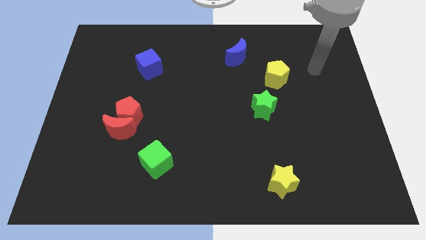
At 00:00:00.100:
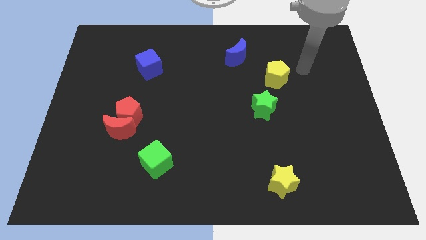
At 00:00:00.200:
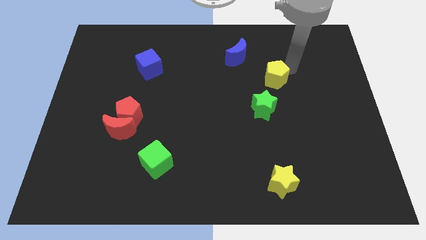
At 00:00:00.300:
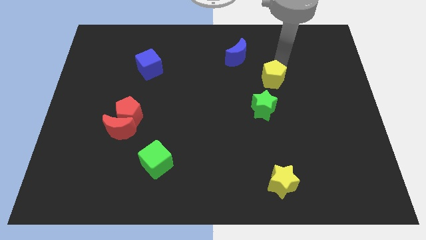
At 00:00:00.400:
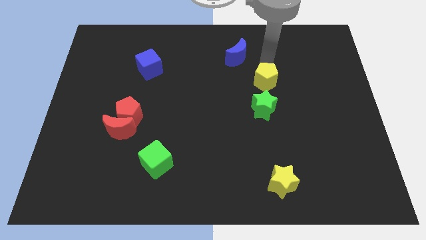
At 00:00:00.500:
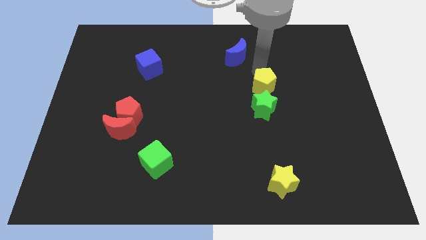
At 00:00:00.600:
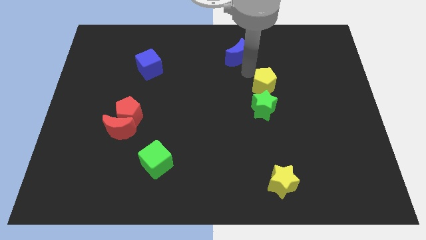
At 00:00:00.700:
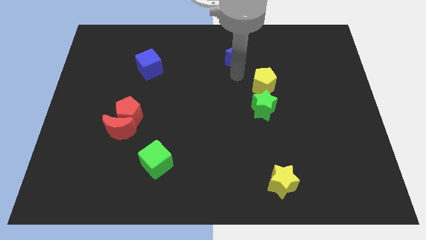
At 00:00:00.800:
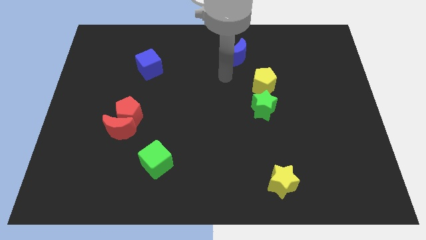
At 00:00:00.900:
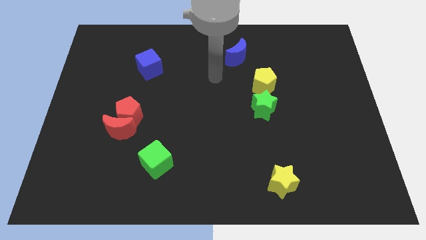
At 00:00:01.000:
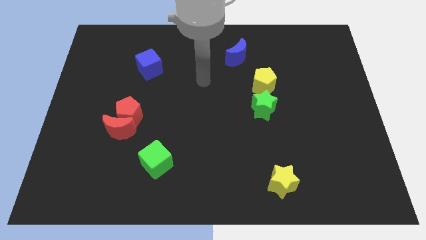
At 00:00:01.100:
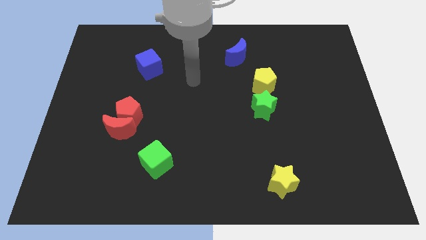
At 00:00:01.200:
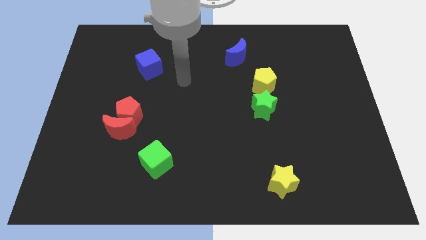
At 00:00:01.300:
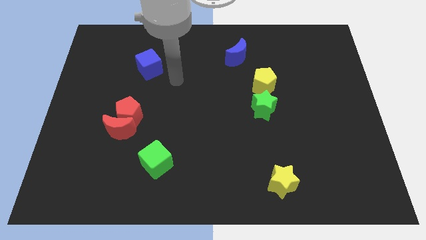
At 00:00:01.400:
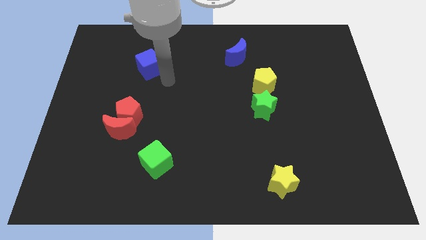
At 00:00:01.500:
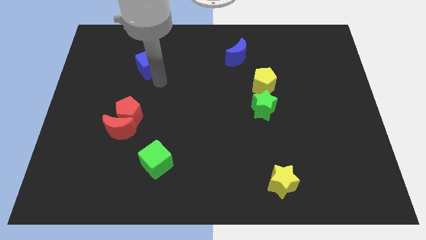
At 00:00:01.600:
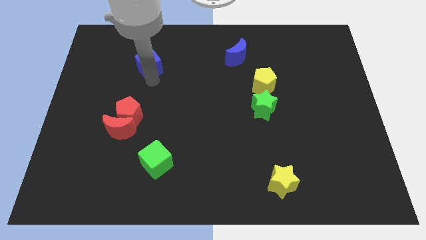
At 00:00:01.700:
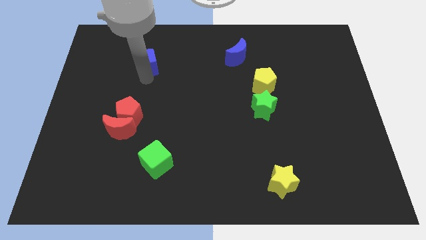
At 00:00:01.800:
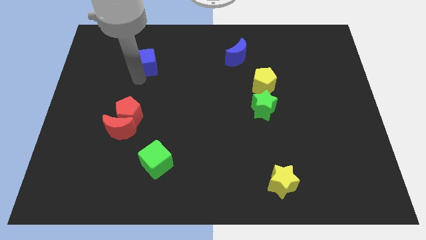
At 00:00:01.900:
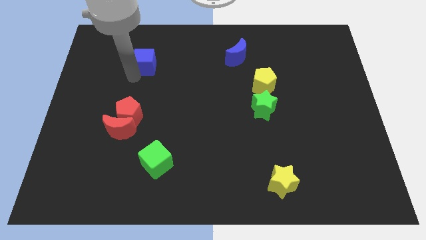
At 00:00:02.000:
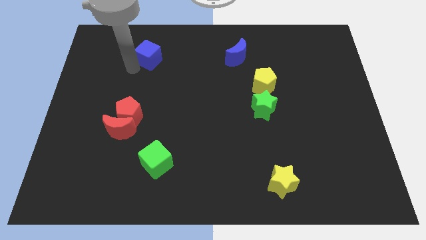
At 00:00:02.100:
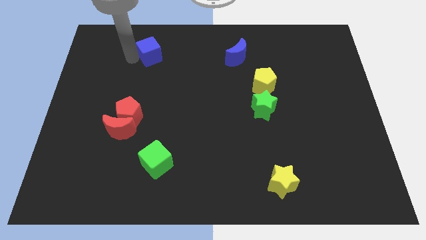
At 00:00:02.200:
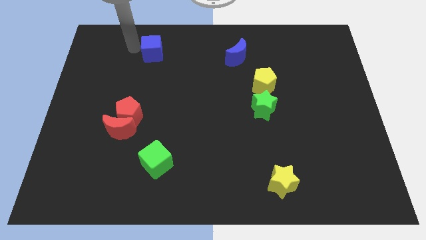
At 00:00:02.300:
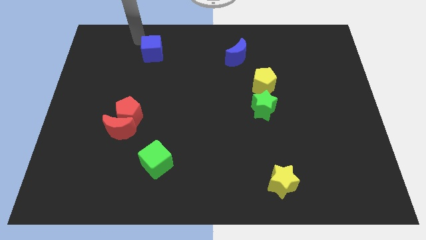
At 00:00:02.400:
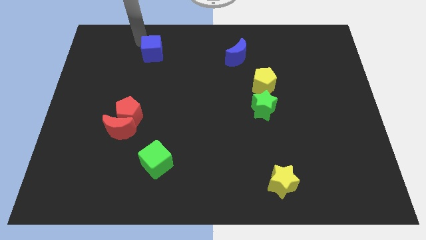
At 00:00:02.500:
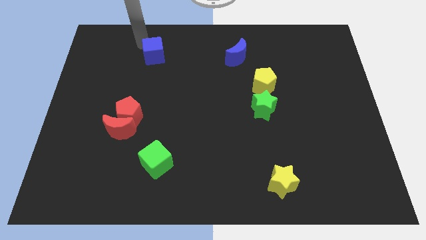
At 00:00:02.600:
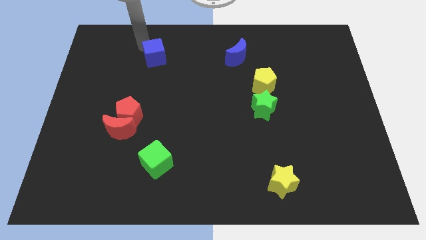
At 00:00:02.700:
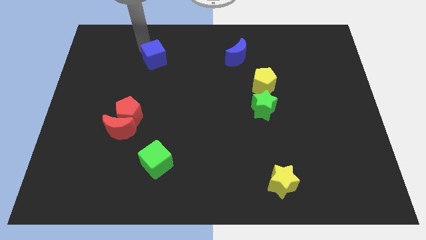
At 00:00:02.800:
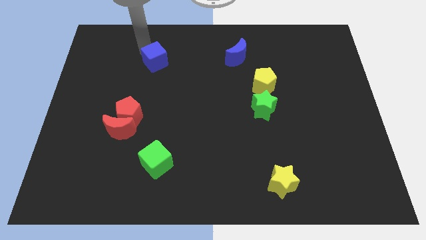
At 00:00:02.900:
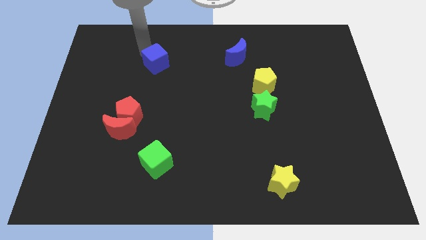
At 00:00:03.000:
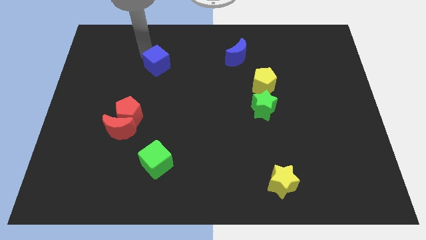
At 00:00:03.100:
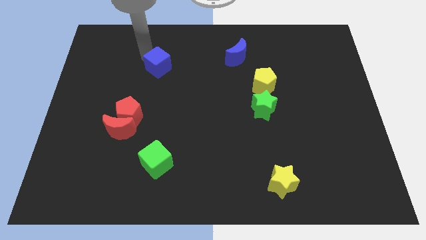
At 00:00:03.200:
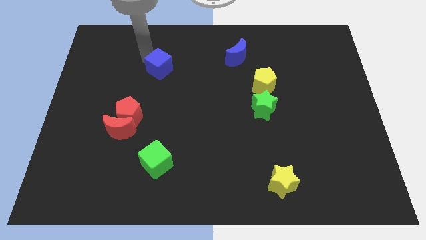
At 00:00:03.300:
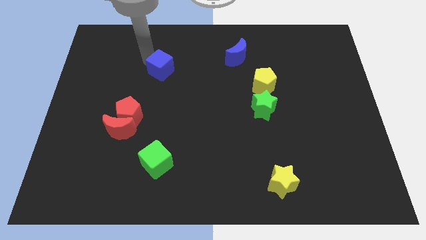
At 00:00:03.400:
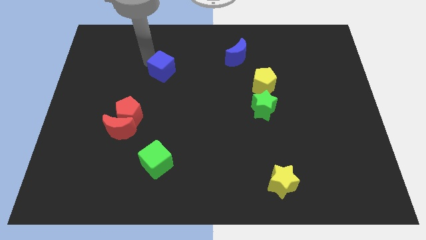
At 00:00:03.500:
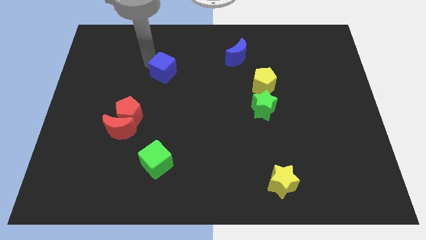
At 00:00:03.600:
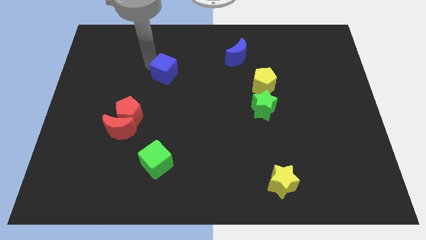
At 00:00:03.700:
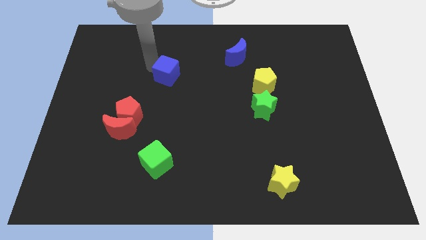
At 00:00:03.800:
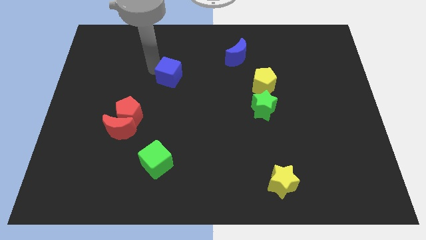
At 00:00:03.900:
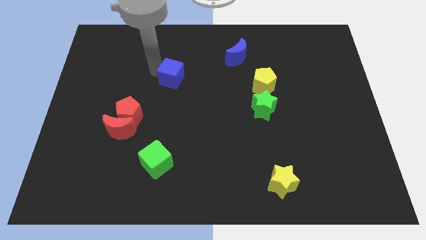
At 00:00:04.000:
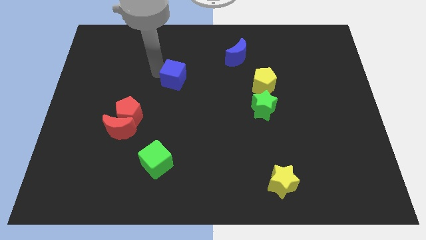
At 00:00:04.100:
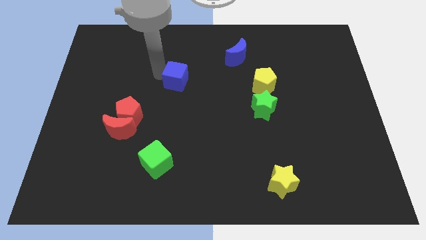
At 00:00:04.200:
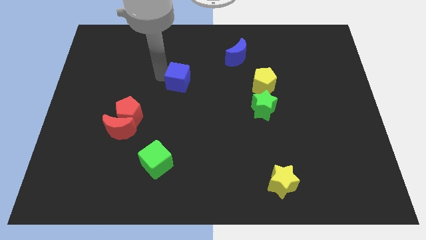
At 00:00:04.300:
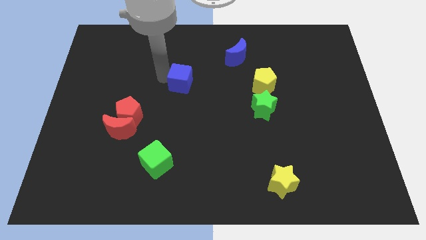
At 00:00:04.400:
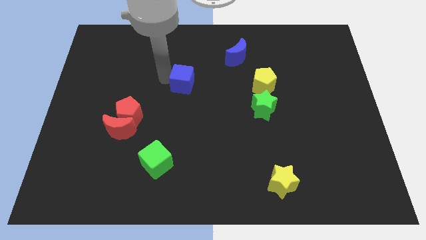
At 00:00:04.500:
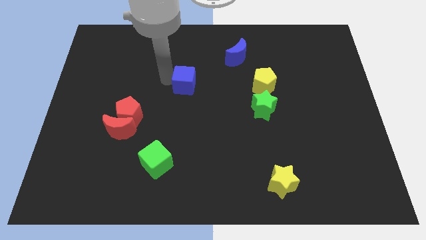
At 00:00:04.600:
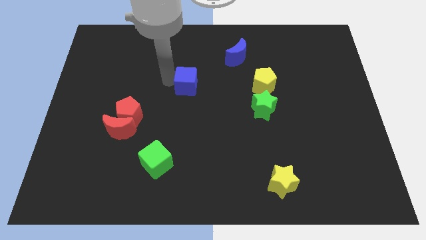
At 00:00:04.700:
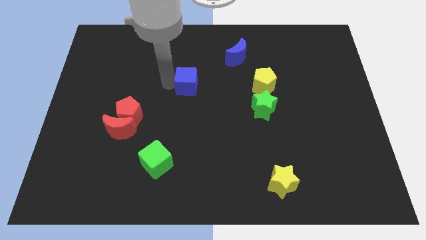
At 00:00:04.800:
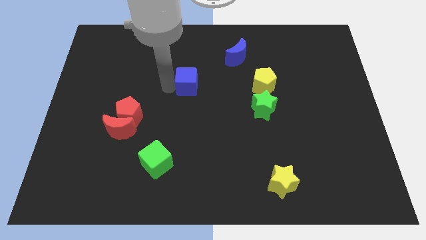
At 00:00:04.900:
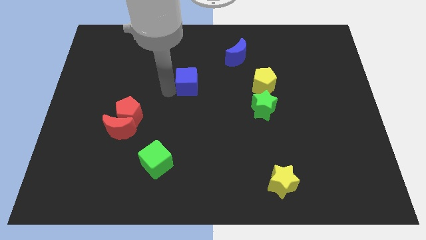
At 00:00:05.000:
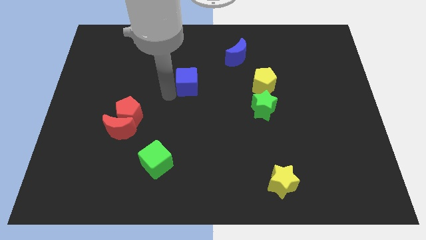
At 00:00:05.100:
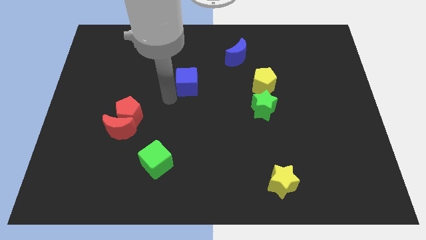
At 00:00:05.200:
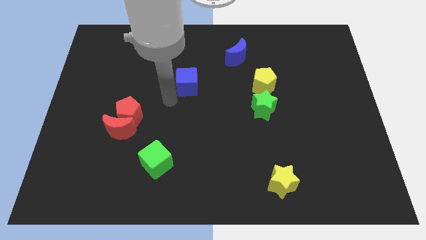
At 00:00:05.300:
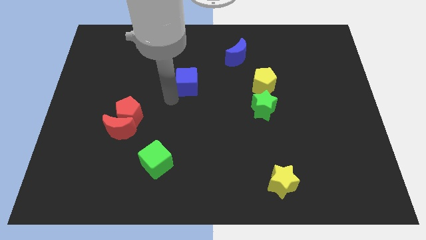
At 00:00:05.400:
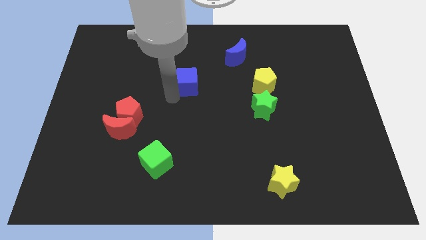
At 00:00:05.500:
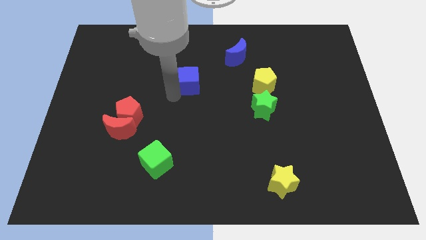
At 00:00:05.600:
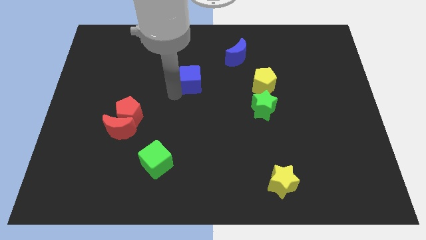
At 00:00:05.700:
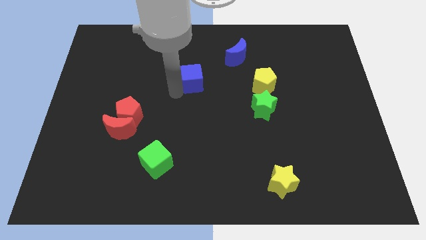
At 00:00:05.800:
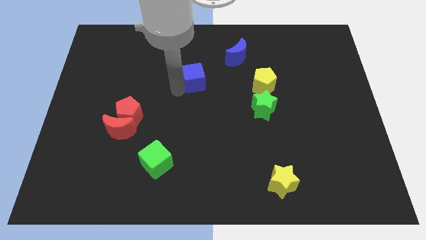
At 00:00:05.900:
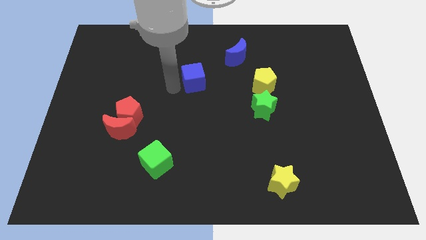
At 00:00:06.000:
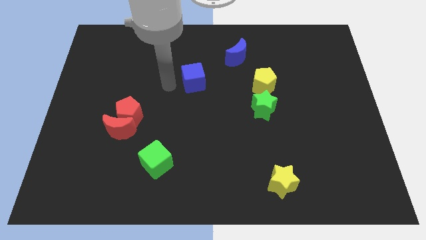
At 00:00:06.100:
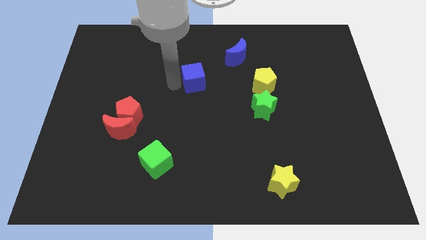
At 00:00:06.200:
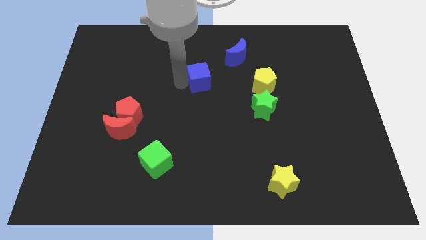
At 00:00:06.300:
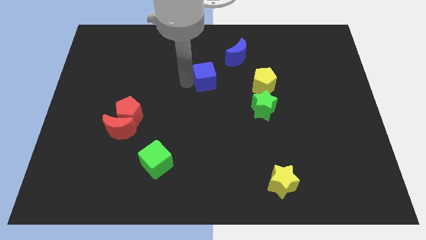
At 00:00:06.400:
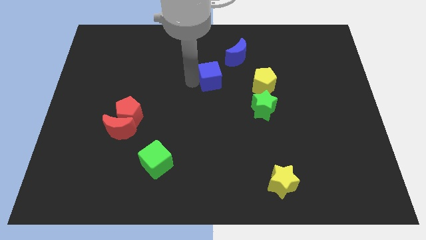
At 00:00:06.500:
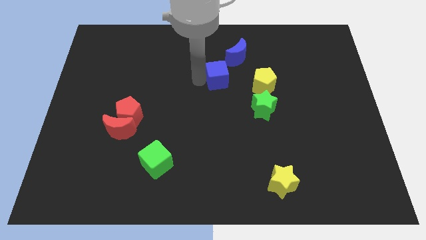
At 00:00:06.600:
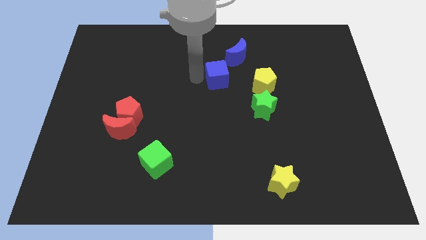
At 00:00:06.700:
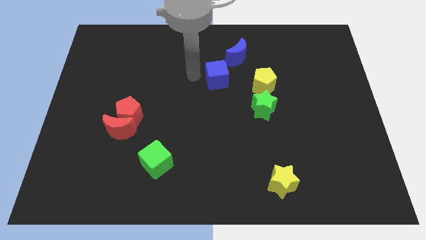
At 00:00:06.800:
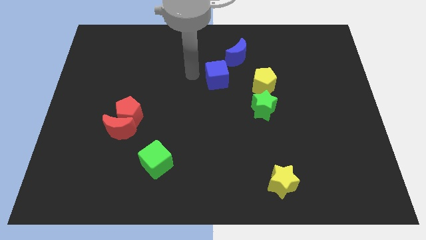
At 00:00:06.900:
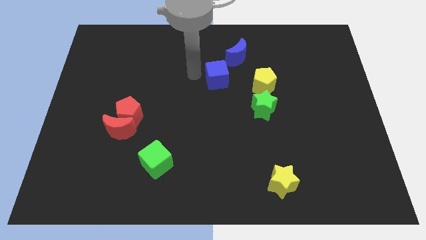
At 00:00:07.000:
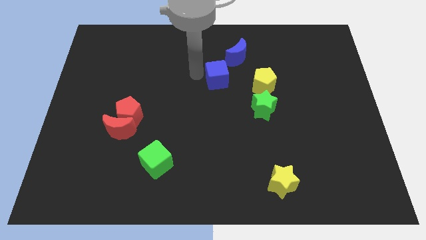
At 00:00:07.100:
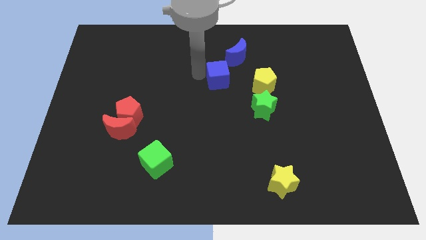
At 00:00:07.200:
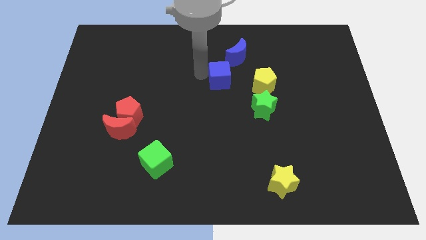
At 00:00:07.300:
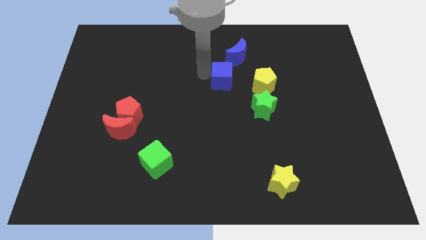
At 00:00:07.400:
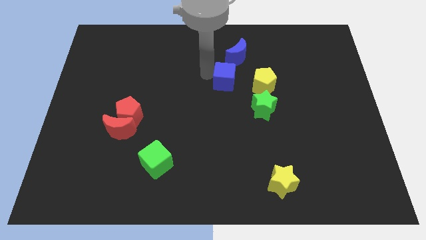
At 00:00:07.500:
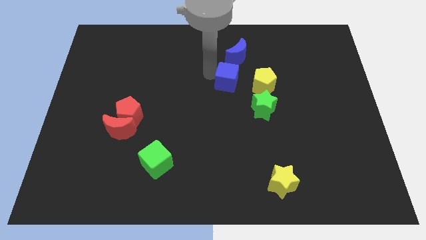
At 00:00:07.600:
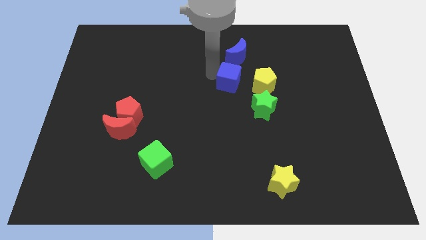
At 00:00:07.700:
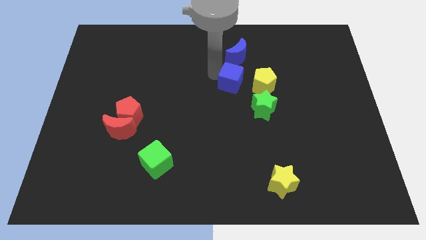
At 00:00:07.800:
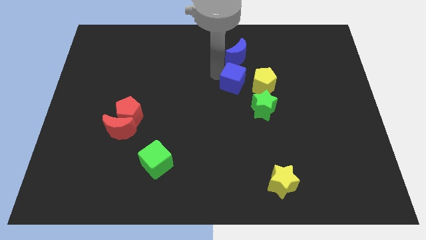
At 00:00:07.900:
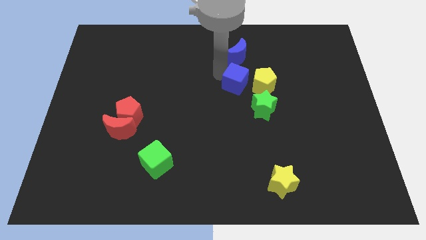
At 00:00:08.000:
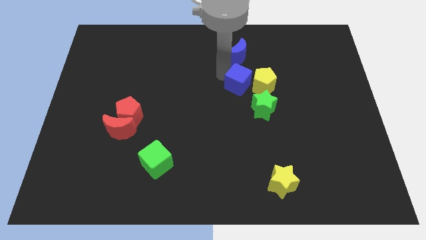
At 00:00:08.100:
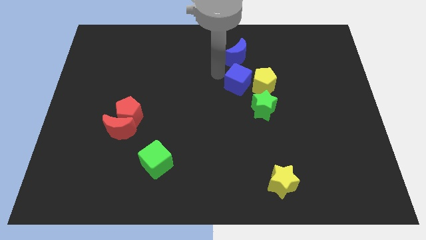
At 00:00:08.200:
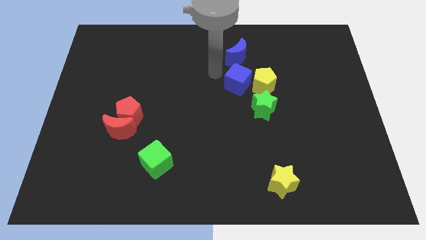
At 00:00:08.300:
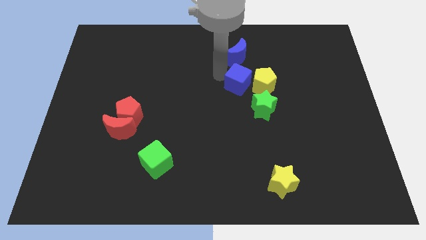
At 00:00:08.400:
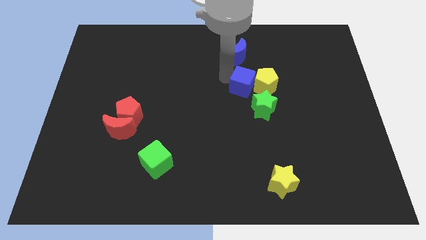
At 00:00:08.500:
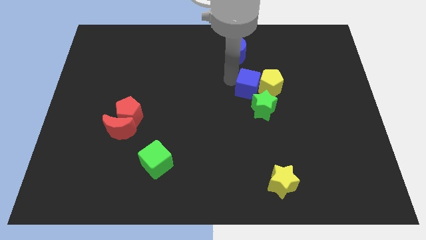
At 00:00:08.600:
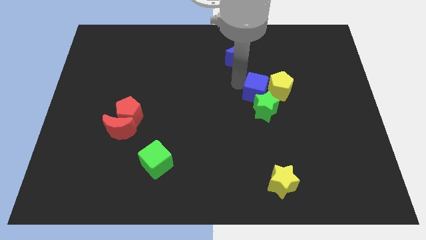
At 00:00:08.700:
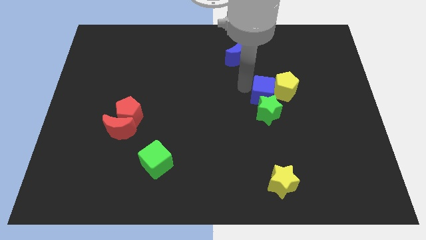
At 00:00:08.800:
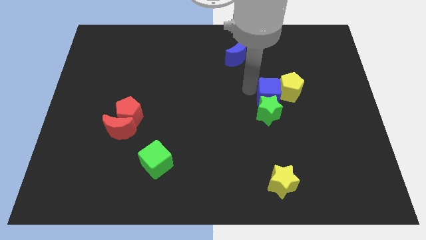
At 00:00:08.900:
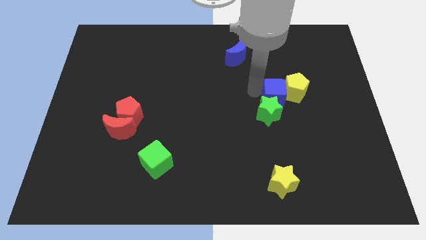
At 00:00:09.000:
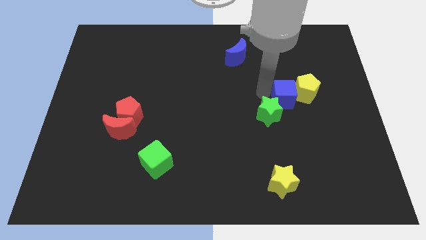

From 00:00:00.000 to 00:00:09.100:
move the blue cube to the right side of the green star
